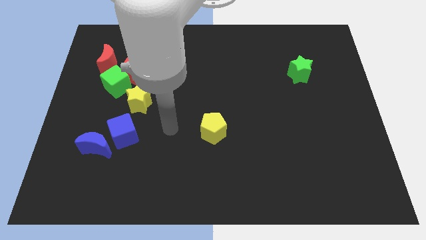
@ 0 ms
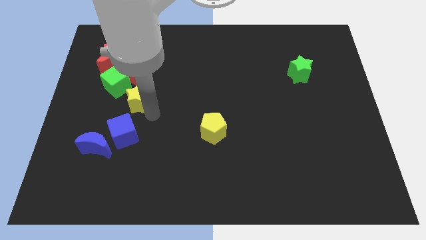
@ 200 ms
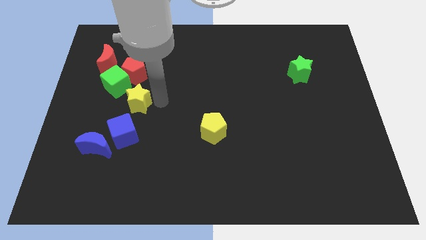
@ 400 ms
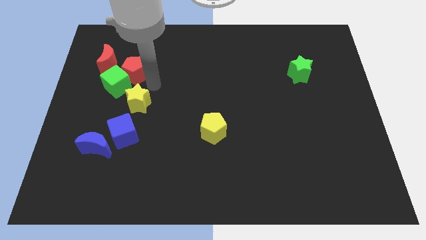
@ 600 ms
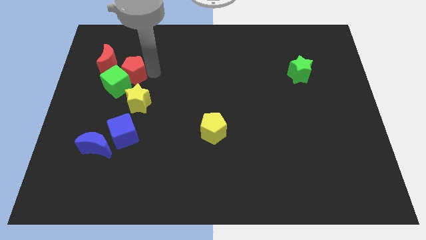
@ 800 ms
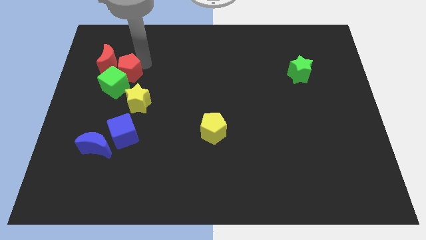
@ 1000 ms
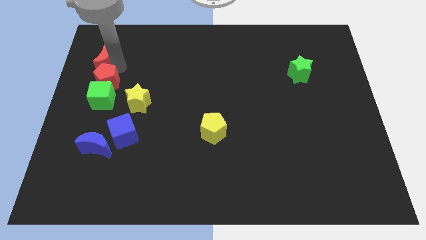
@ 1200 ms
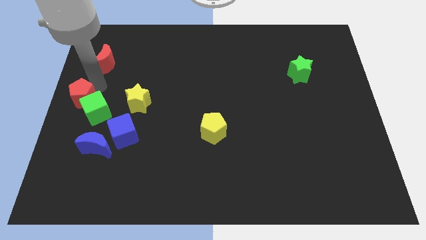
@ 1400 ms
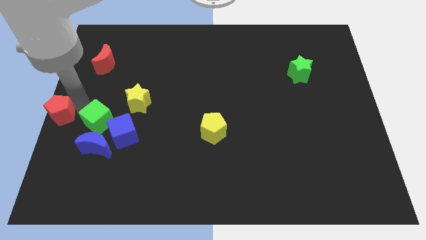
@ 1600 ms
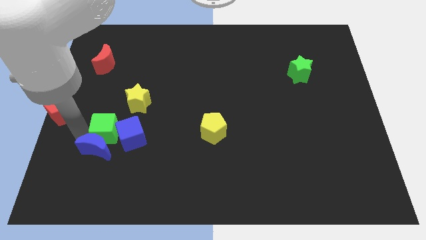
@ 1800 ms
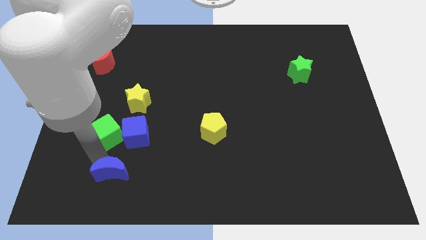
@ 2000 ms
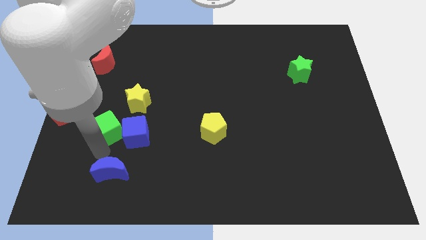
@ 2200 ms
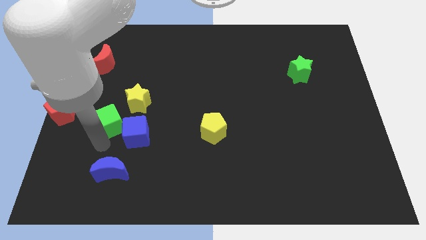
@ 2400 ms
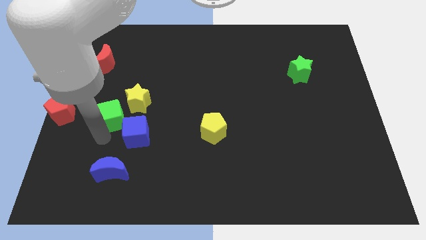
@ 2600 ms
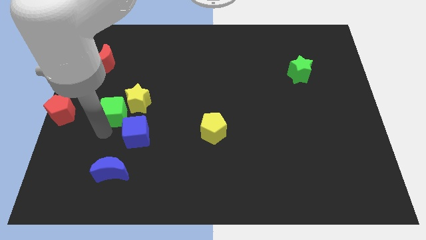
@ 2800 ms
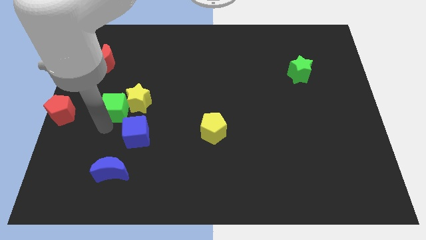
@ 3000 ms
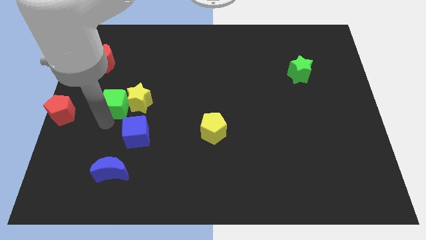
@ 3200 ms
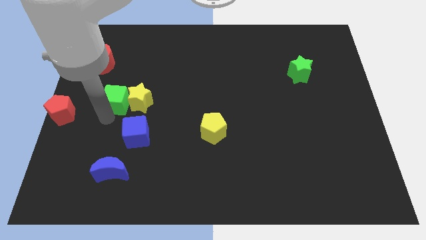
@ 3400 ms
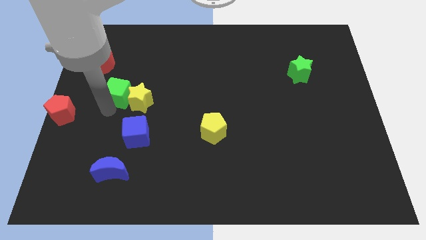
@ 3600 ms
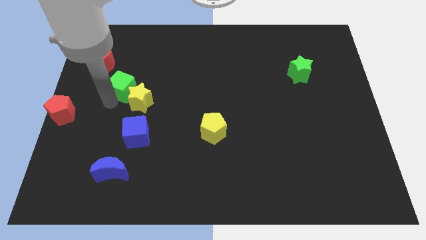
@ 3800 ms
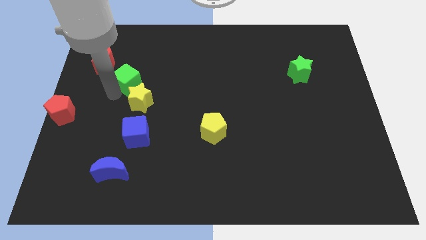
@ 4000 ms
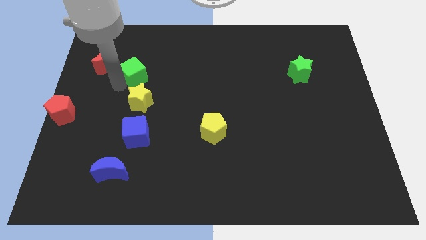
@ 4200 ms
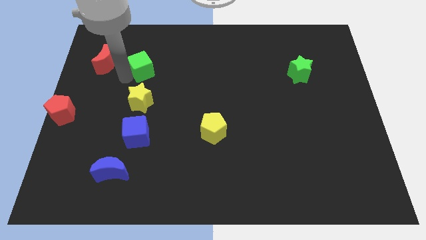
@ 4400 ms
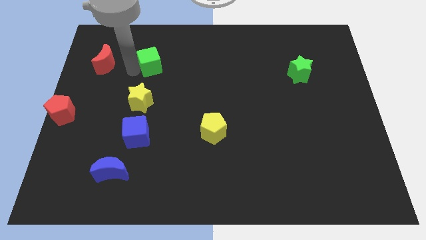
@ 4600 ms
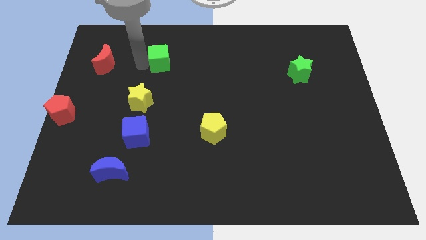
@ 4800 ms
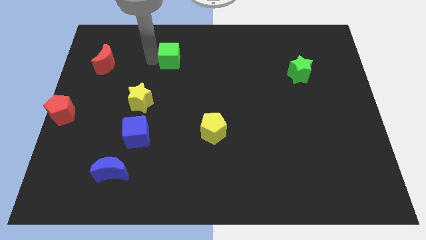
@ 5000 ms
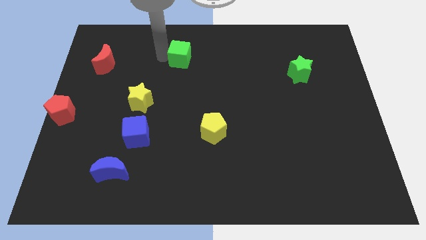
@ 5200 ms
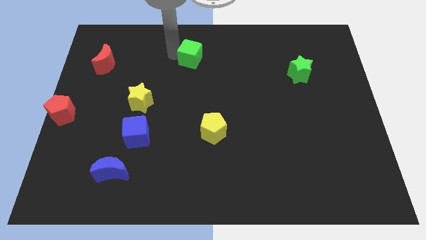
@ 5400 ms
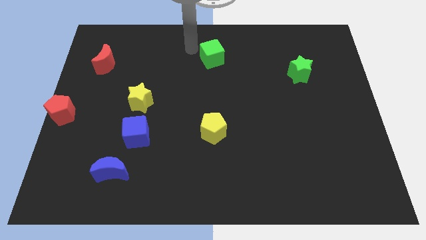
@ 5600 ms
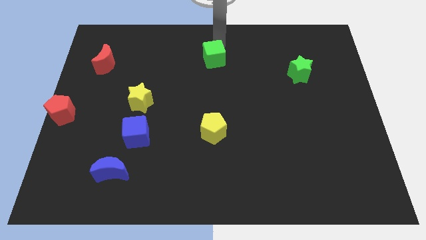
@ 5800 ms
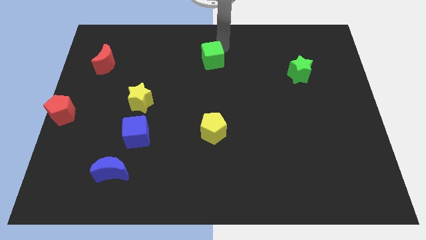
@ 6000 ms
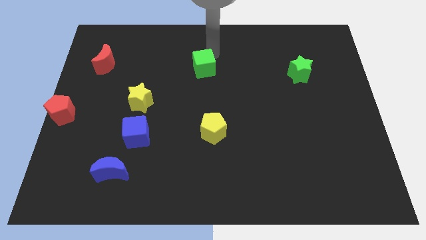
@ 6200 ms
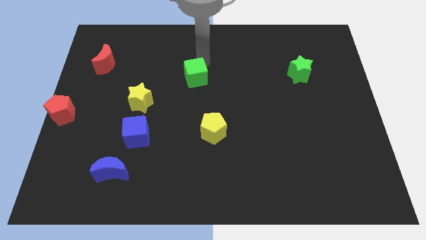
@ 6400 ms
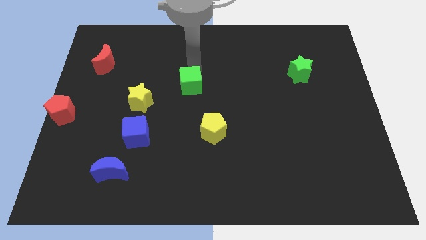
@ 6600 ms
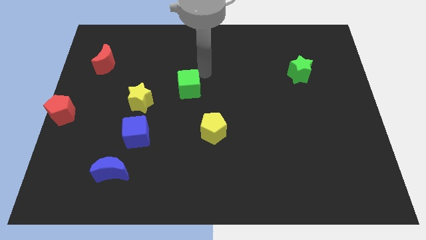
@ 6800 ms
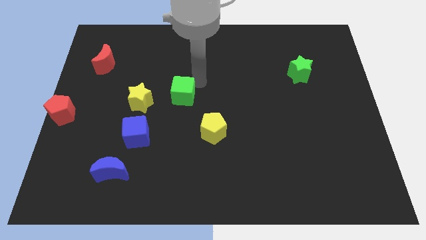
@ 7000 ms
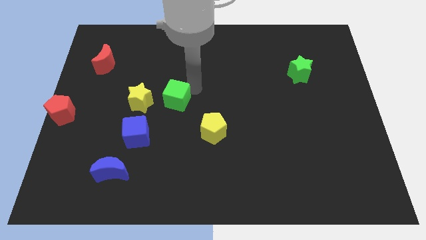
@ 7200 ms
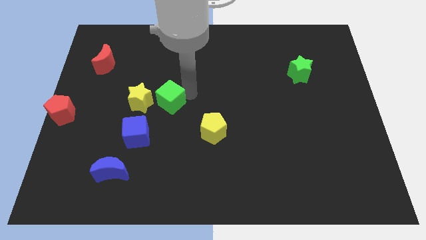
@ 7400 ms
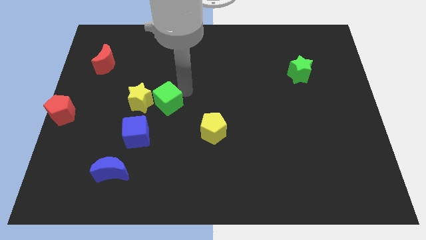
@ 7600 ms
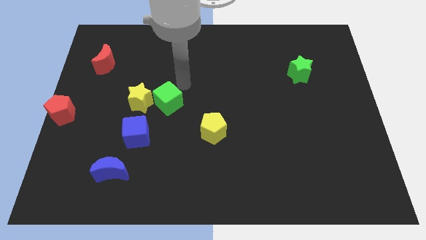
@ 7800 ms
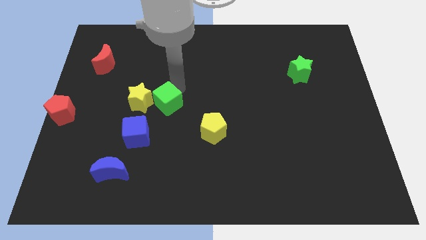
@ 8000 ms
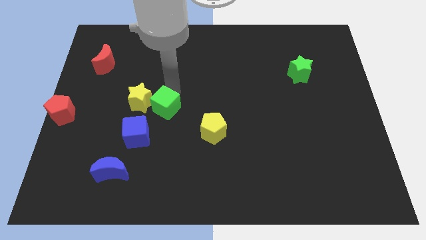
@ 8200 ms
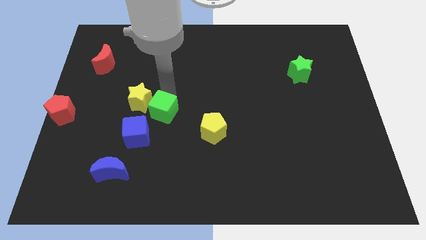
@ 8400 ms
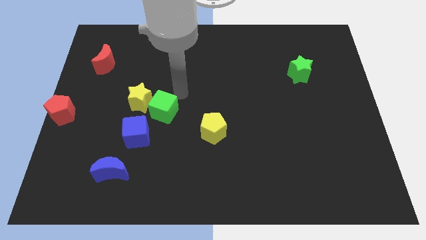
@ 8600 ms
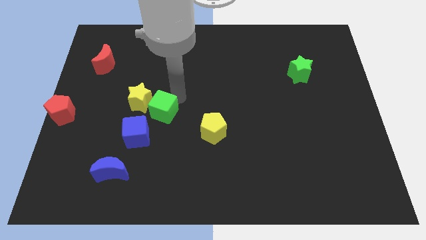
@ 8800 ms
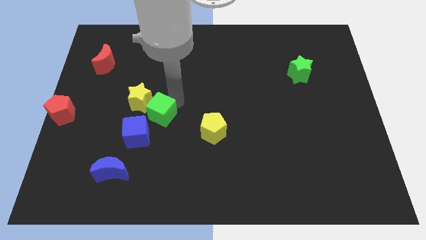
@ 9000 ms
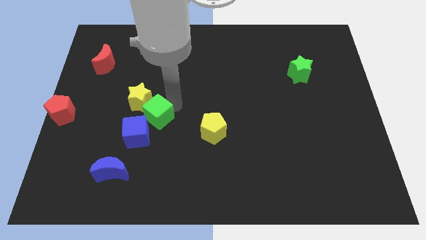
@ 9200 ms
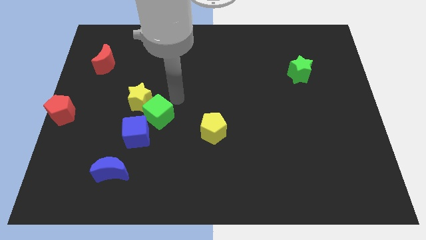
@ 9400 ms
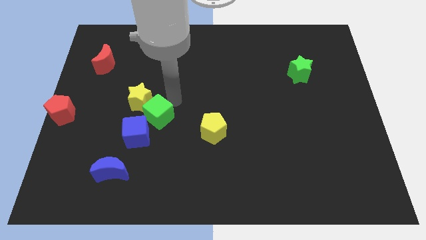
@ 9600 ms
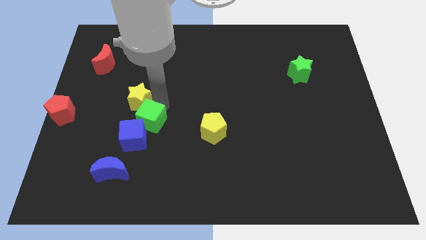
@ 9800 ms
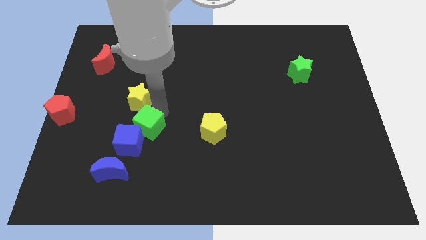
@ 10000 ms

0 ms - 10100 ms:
push the green cube to the right of the blue cube

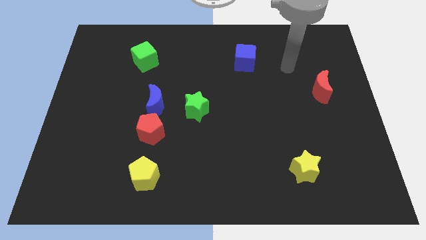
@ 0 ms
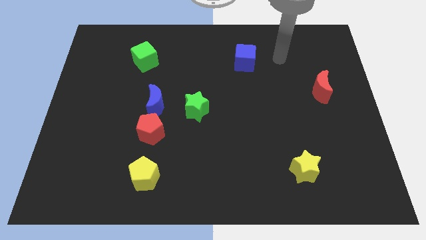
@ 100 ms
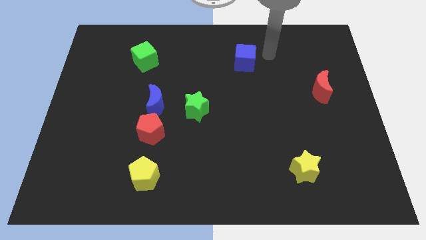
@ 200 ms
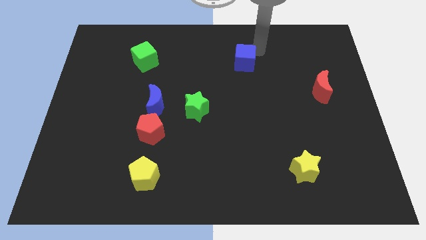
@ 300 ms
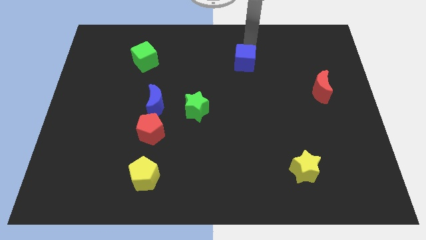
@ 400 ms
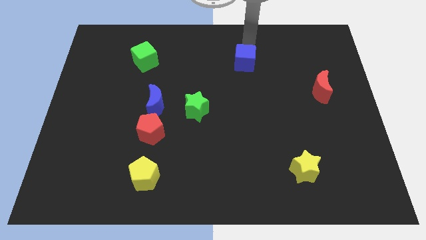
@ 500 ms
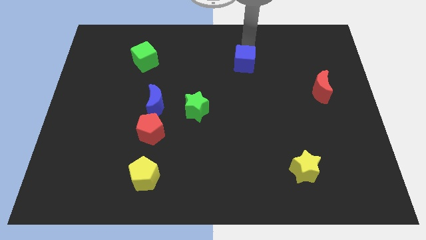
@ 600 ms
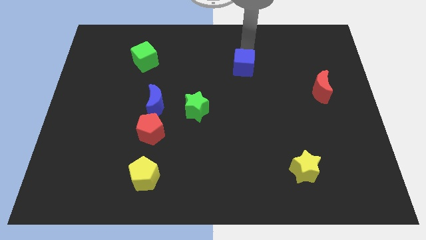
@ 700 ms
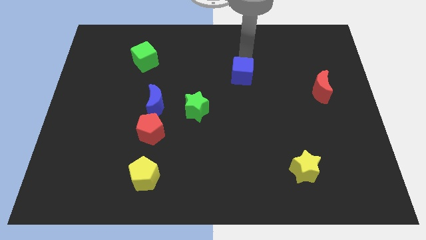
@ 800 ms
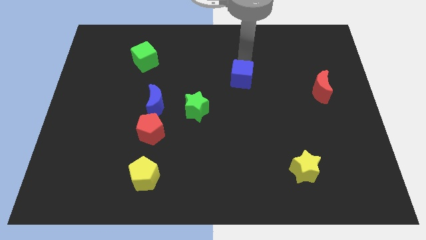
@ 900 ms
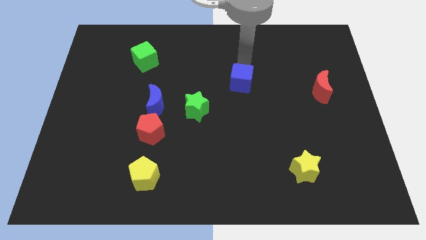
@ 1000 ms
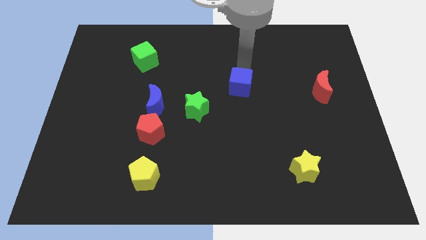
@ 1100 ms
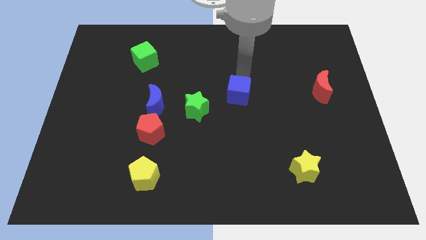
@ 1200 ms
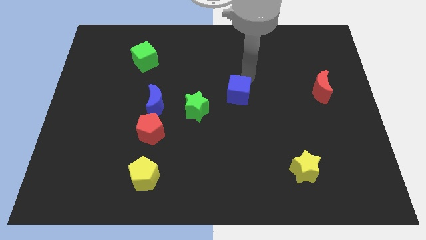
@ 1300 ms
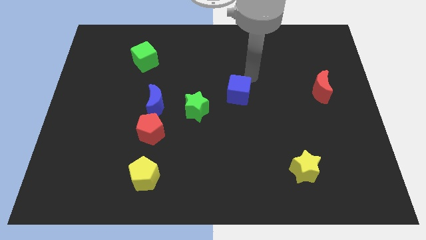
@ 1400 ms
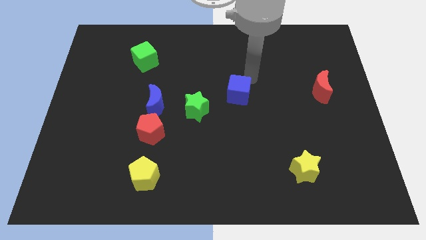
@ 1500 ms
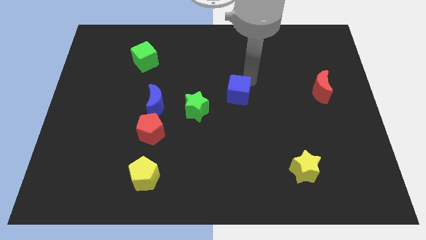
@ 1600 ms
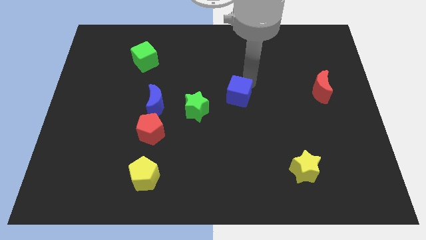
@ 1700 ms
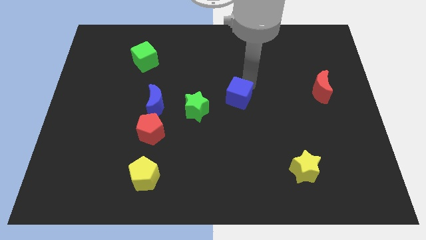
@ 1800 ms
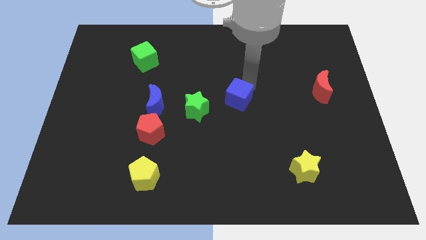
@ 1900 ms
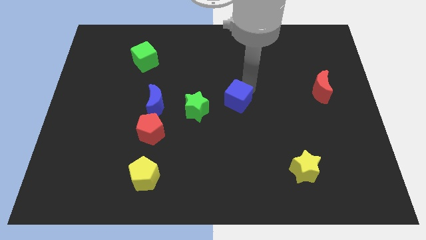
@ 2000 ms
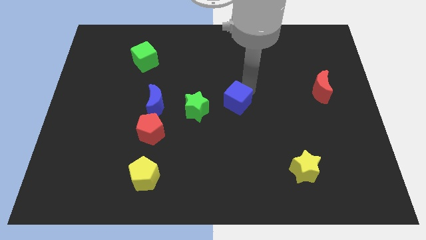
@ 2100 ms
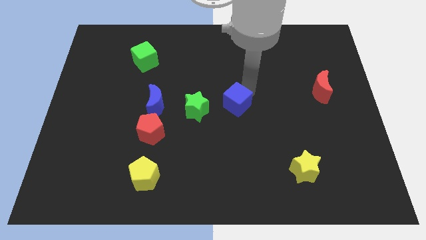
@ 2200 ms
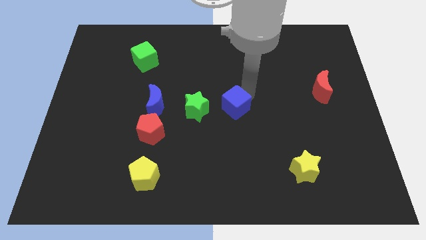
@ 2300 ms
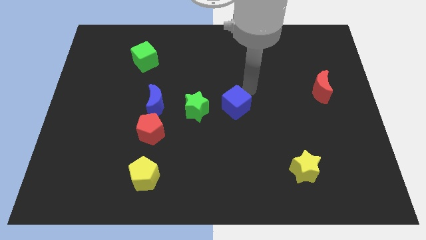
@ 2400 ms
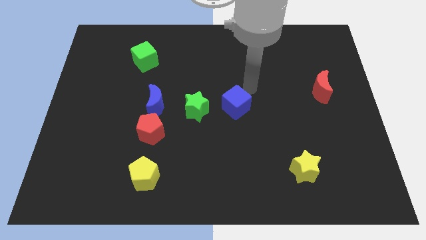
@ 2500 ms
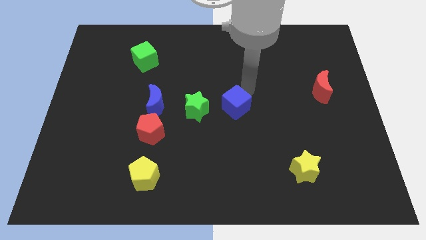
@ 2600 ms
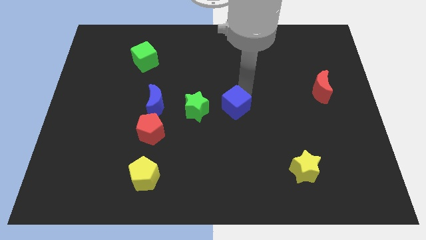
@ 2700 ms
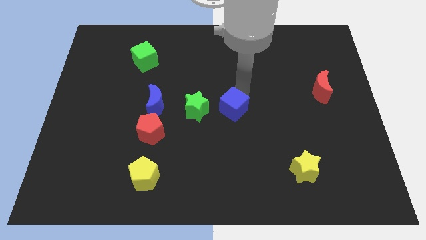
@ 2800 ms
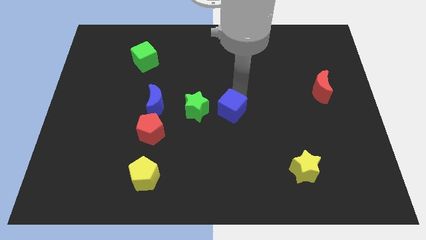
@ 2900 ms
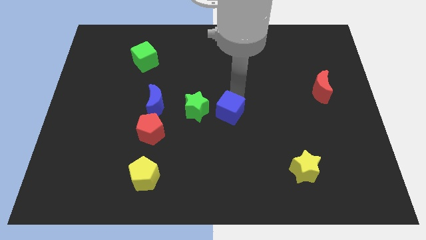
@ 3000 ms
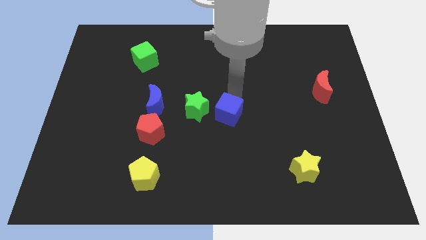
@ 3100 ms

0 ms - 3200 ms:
slide the blue cube to the bottom right of the green star
